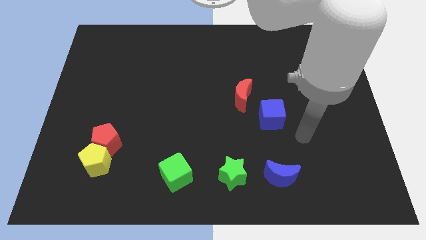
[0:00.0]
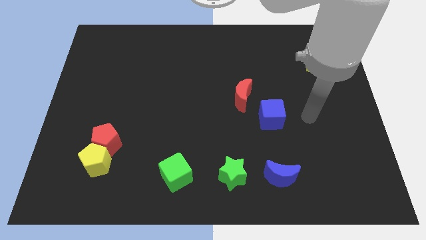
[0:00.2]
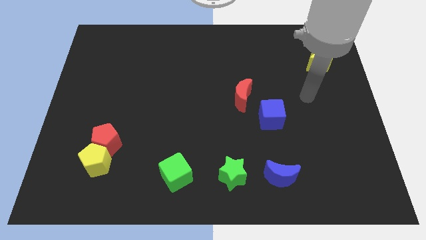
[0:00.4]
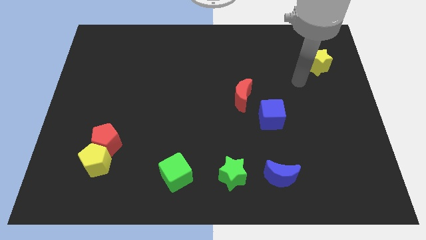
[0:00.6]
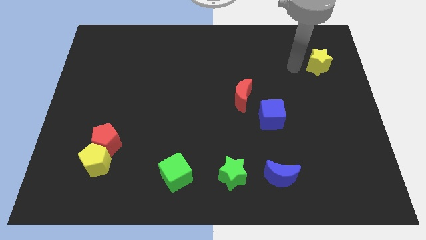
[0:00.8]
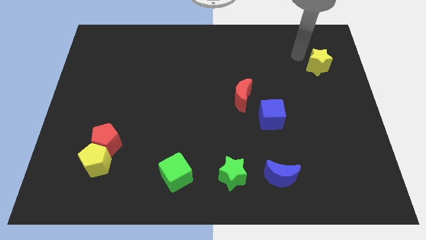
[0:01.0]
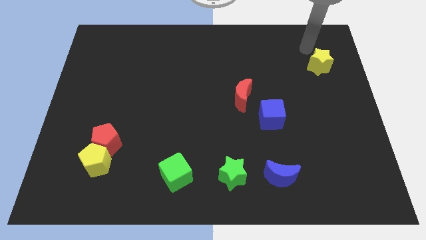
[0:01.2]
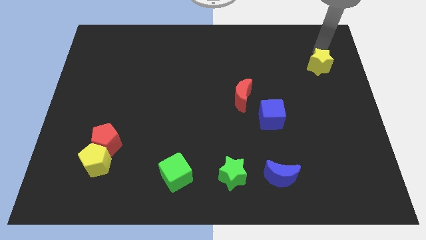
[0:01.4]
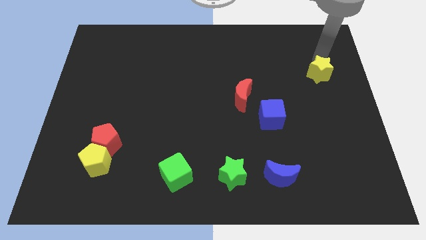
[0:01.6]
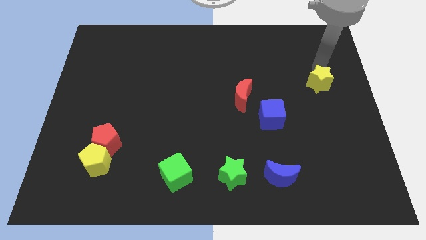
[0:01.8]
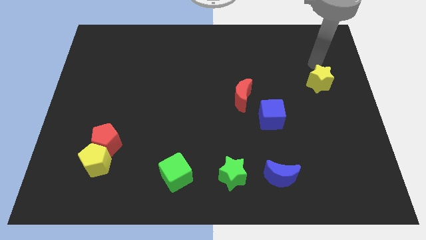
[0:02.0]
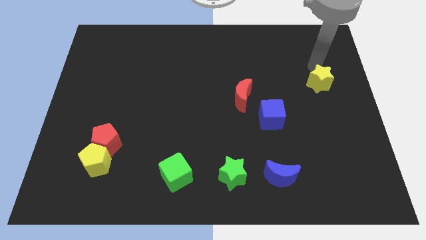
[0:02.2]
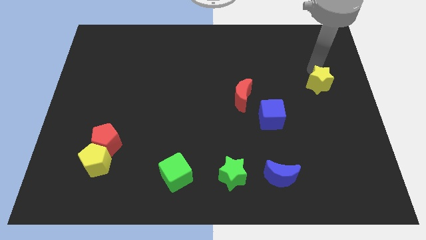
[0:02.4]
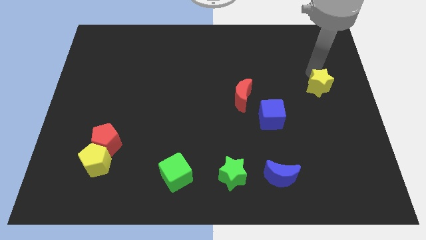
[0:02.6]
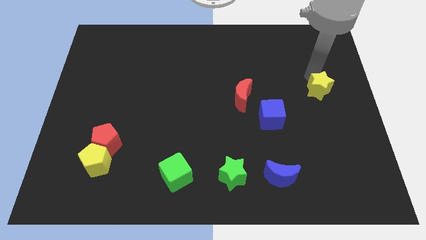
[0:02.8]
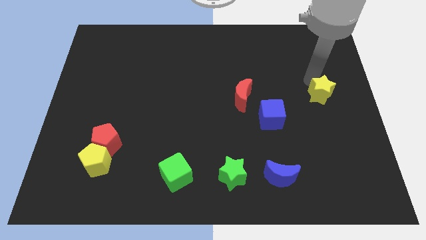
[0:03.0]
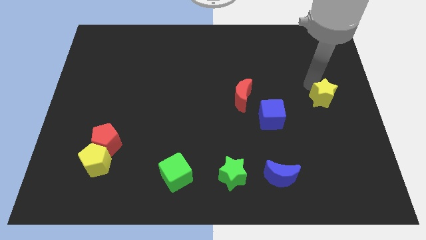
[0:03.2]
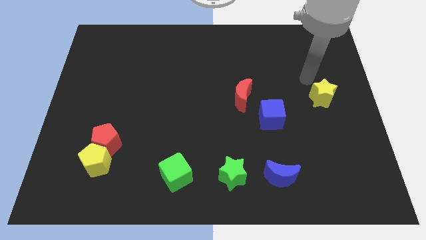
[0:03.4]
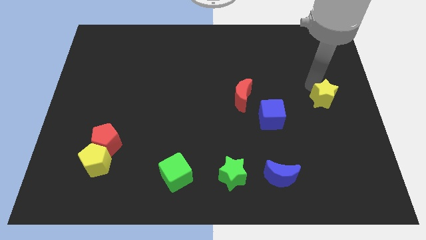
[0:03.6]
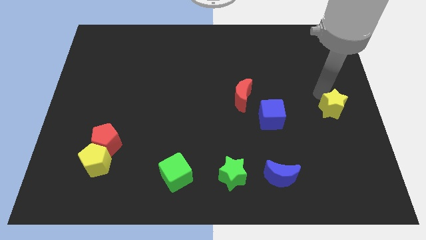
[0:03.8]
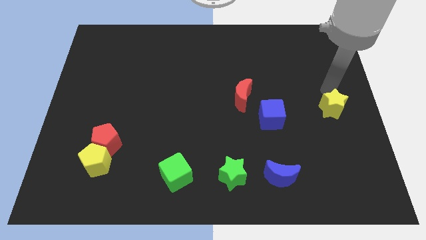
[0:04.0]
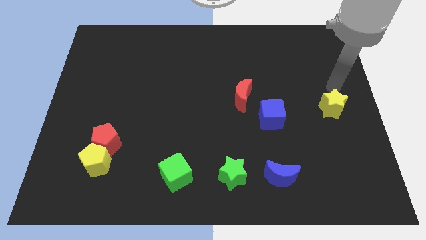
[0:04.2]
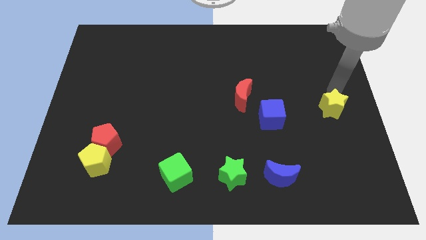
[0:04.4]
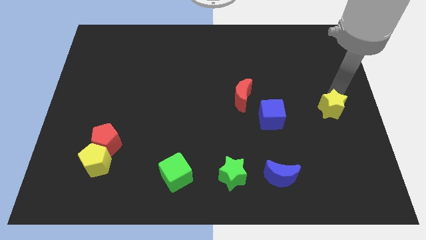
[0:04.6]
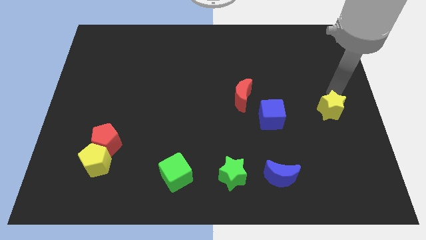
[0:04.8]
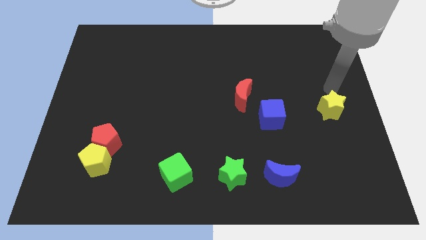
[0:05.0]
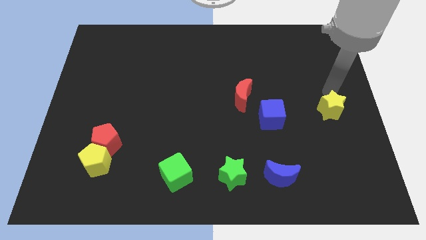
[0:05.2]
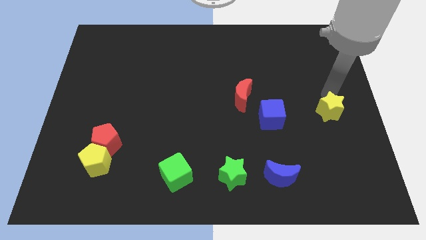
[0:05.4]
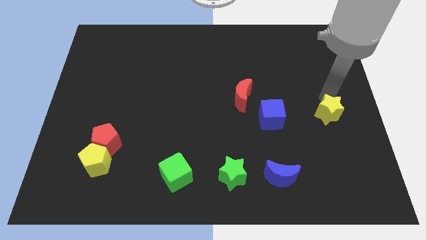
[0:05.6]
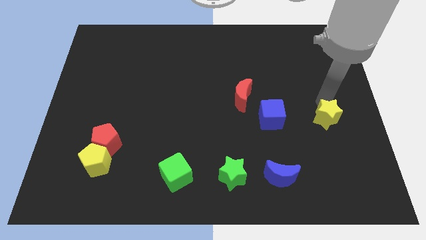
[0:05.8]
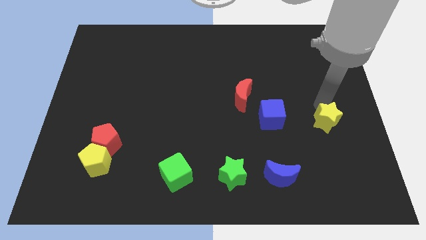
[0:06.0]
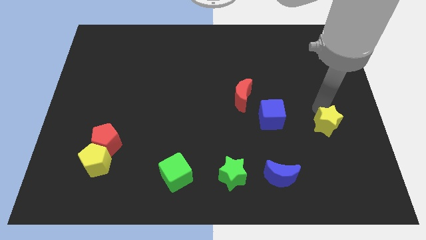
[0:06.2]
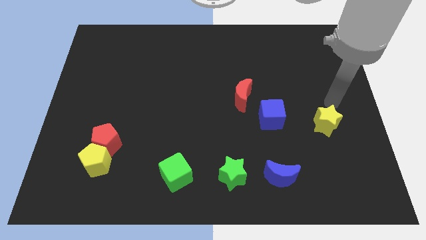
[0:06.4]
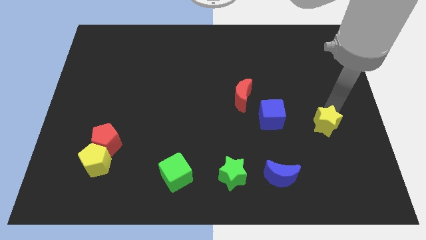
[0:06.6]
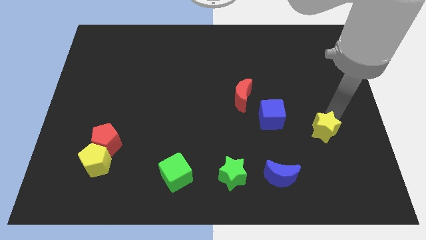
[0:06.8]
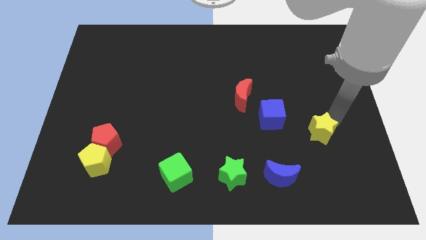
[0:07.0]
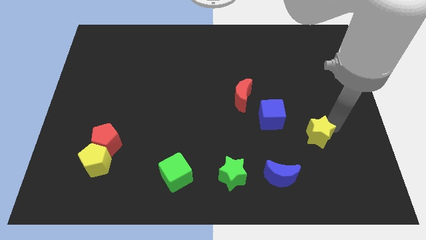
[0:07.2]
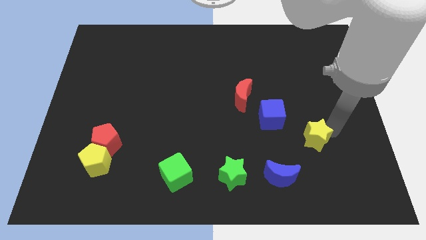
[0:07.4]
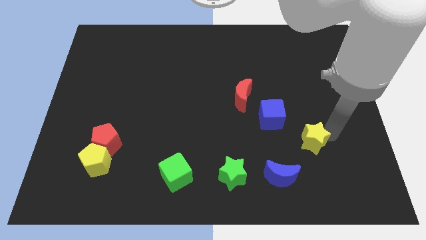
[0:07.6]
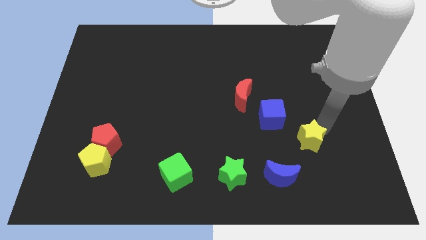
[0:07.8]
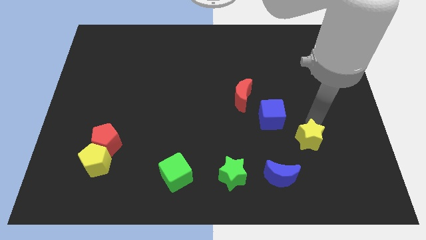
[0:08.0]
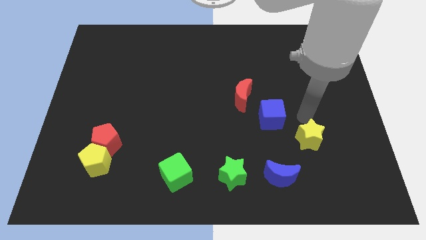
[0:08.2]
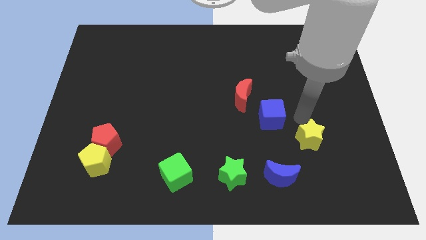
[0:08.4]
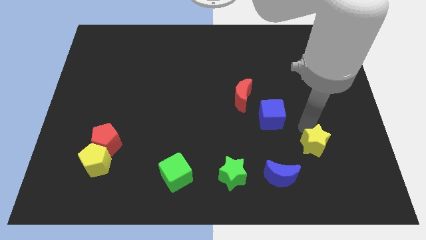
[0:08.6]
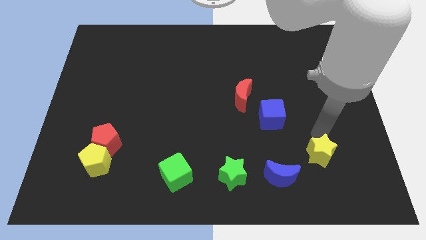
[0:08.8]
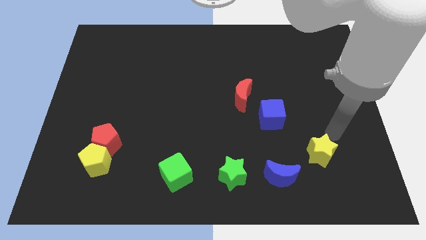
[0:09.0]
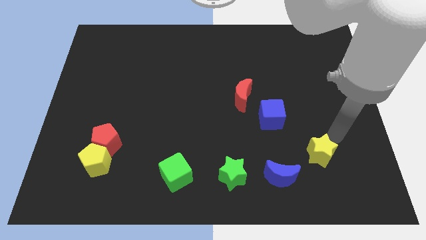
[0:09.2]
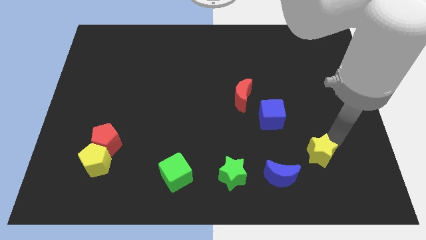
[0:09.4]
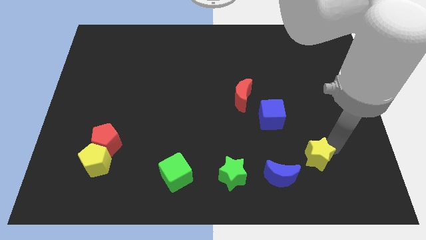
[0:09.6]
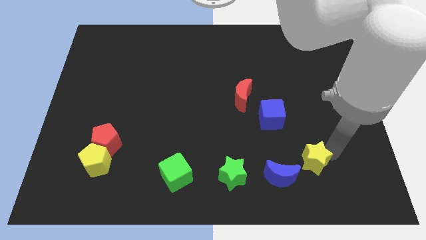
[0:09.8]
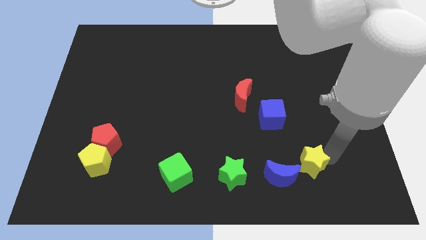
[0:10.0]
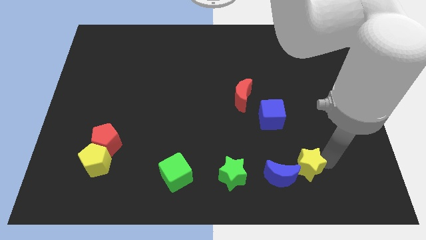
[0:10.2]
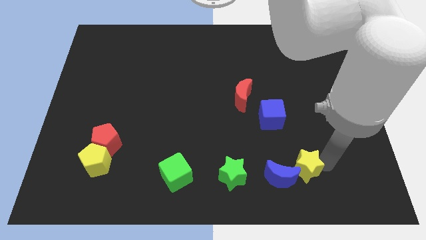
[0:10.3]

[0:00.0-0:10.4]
push the yellow star to the right of the green star

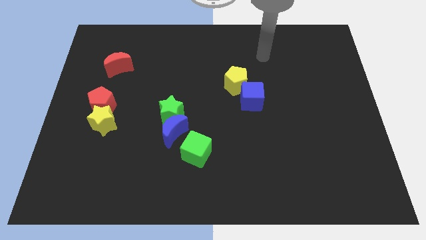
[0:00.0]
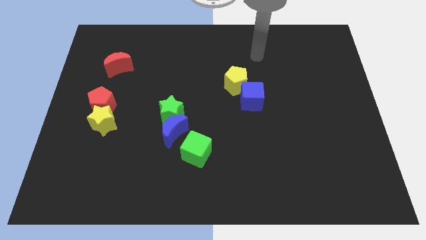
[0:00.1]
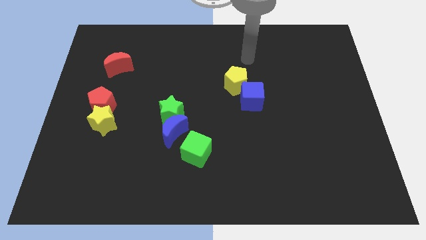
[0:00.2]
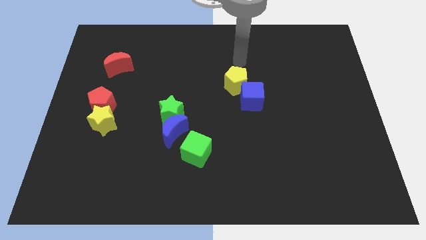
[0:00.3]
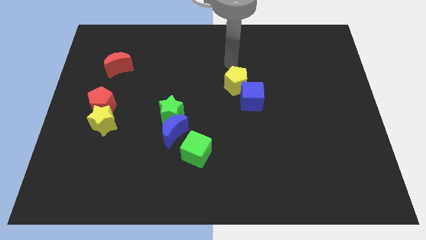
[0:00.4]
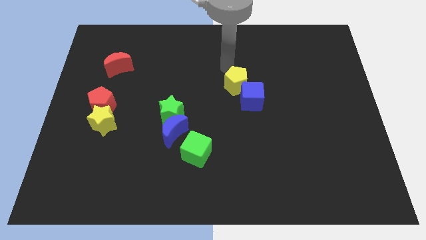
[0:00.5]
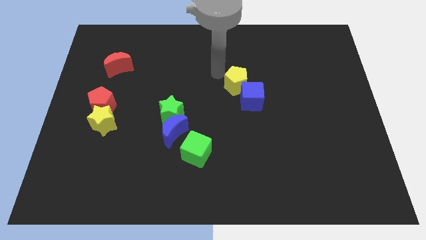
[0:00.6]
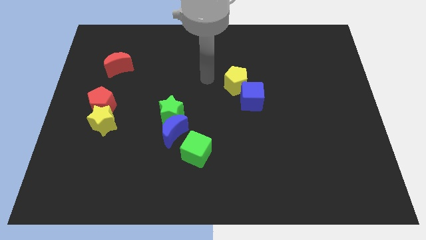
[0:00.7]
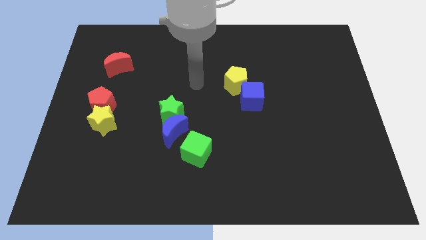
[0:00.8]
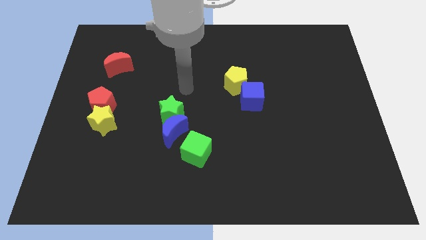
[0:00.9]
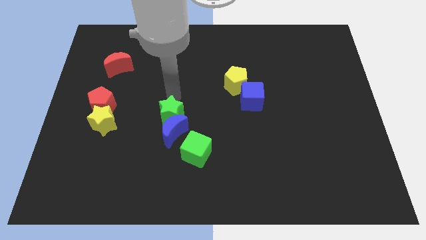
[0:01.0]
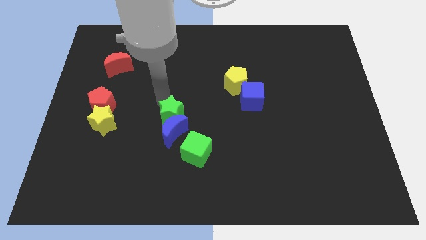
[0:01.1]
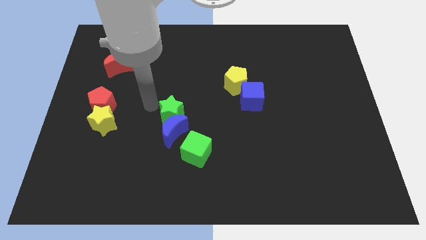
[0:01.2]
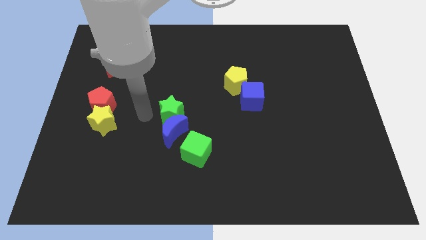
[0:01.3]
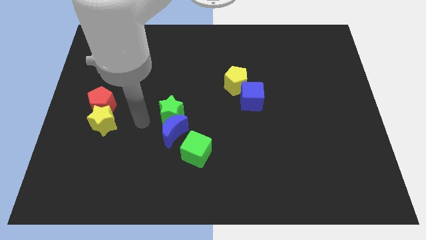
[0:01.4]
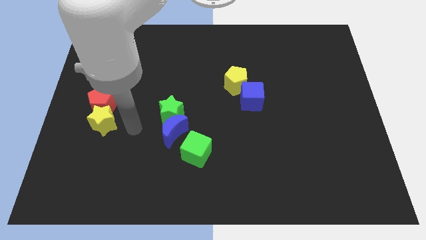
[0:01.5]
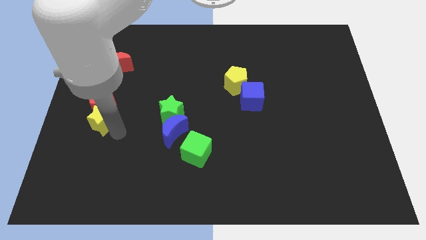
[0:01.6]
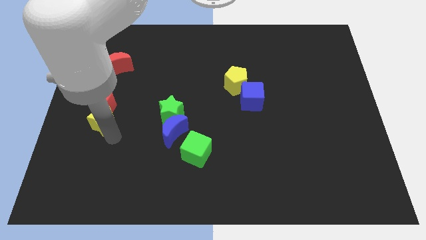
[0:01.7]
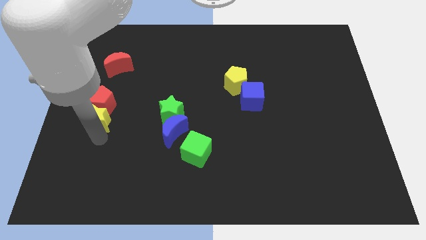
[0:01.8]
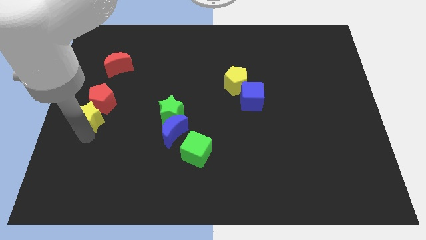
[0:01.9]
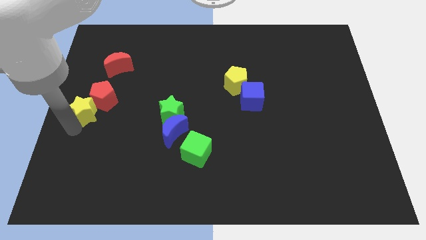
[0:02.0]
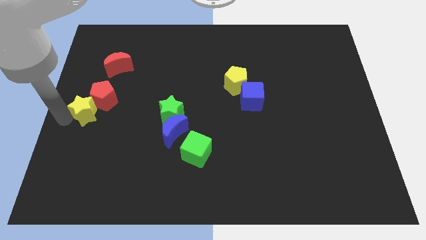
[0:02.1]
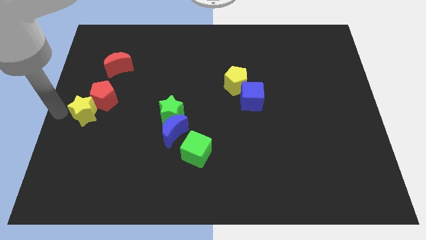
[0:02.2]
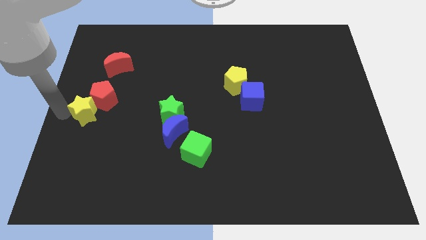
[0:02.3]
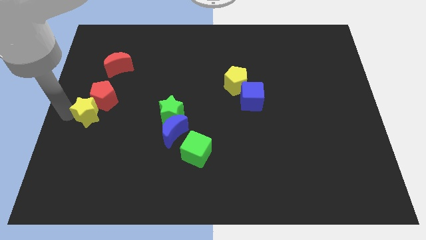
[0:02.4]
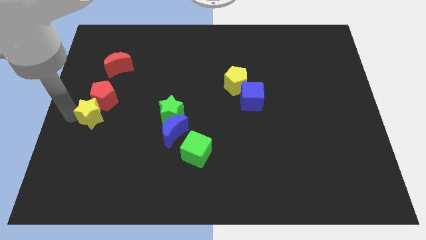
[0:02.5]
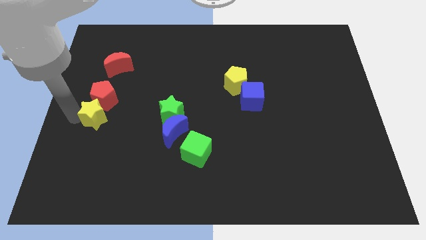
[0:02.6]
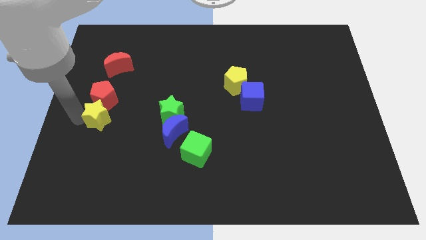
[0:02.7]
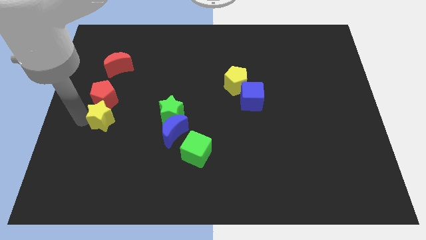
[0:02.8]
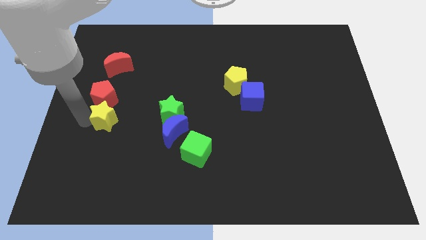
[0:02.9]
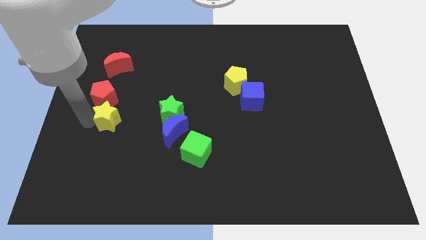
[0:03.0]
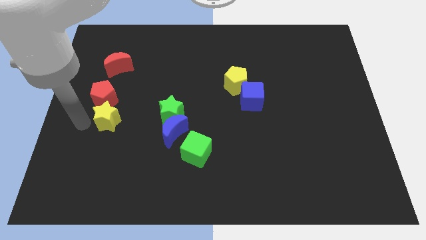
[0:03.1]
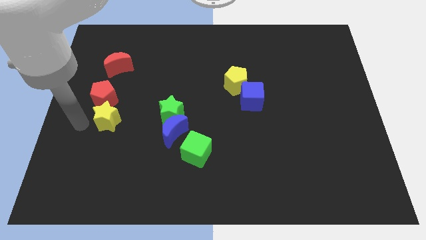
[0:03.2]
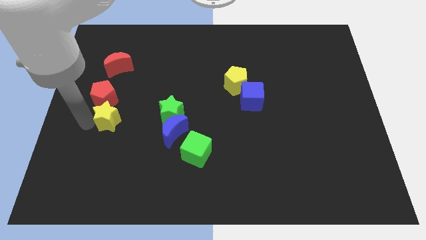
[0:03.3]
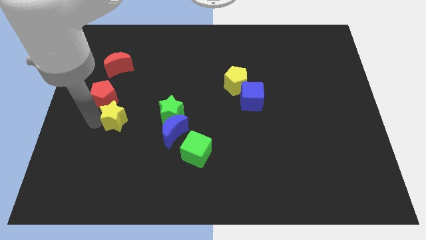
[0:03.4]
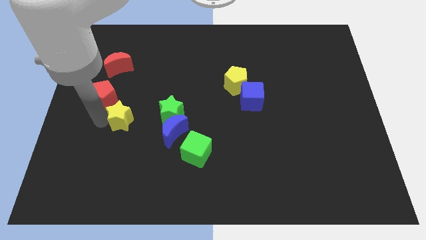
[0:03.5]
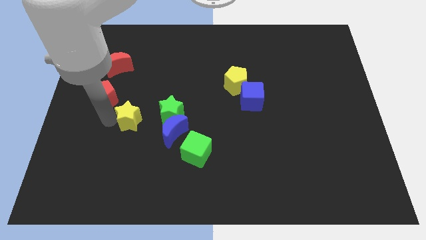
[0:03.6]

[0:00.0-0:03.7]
slide the yellow star to the top left side of the blue moon
